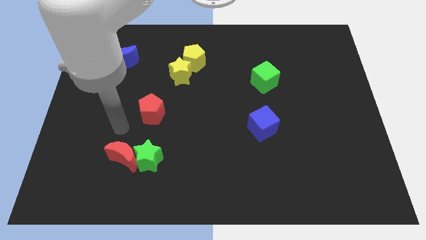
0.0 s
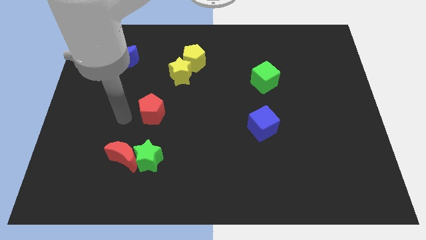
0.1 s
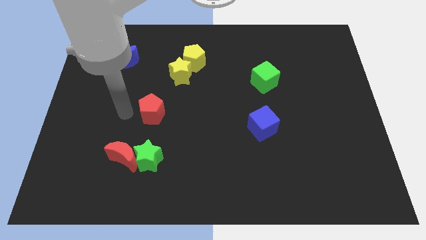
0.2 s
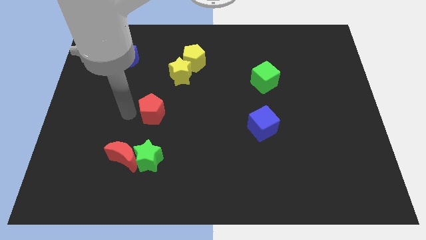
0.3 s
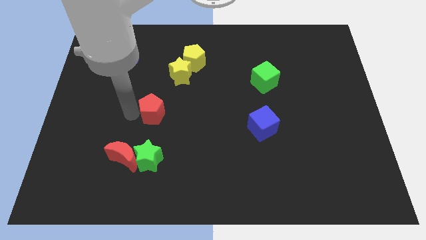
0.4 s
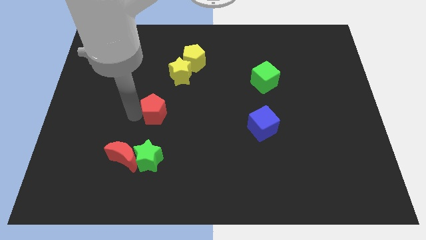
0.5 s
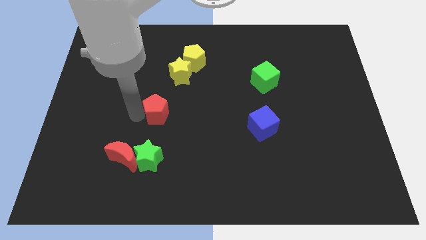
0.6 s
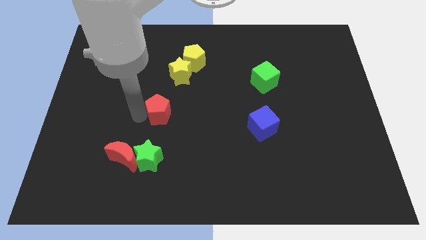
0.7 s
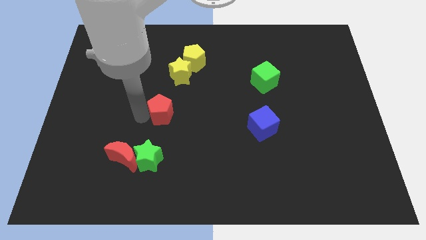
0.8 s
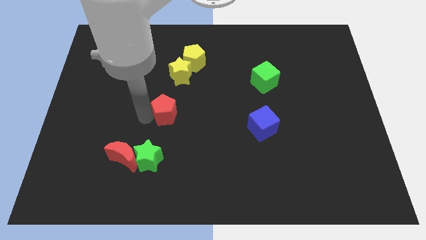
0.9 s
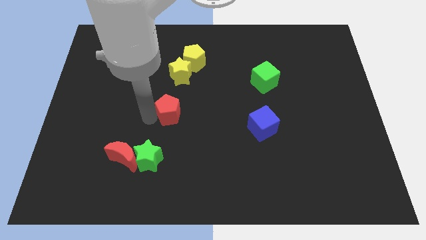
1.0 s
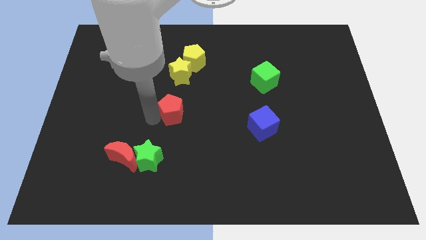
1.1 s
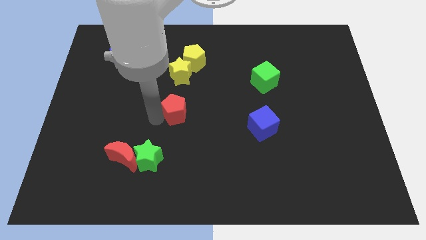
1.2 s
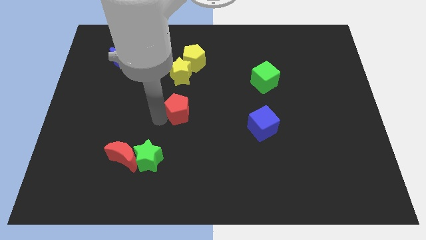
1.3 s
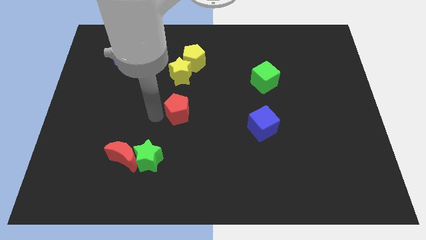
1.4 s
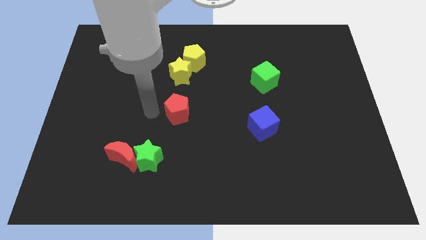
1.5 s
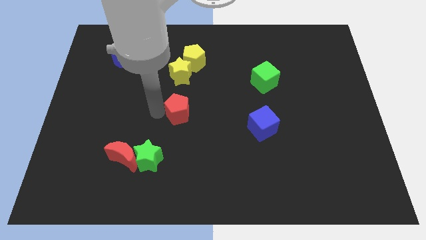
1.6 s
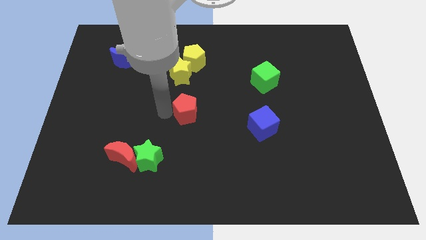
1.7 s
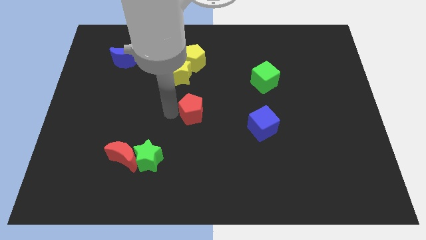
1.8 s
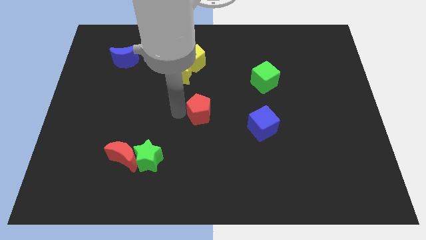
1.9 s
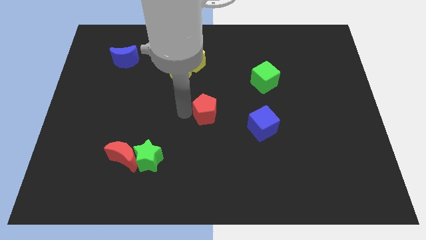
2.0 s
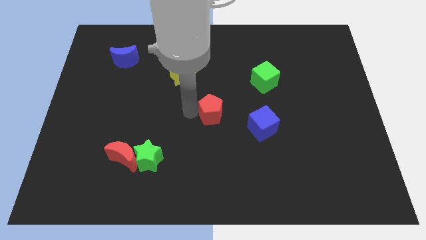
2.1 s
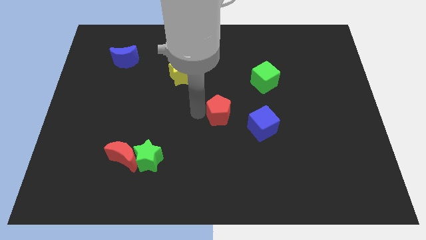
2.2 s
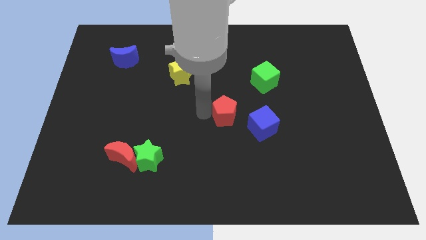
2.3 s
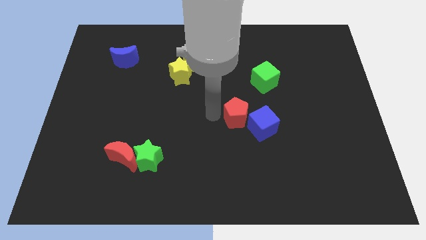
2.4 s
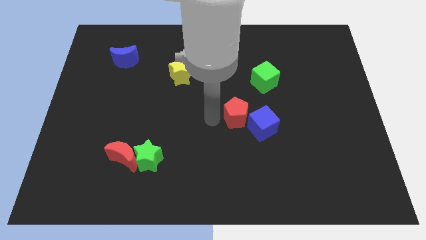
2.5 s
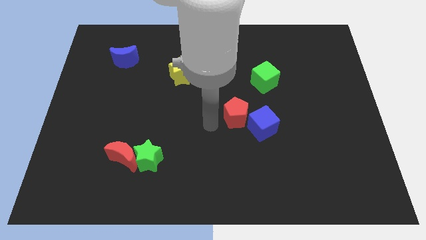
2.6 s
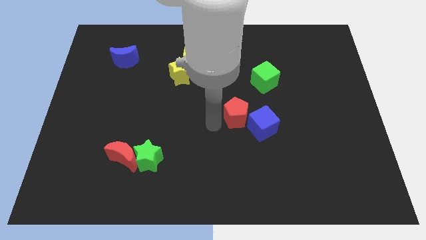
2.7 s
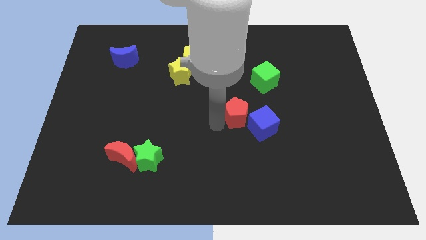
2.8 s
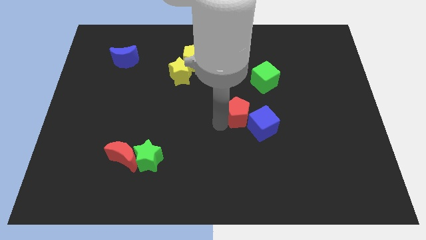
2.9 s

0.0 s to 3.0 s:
move the red pentagon to the right

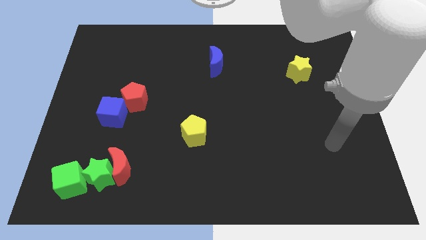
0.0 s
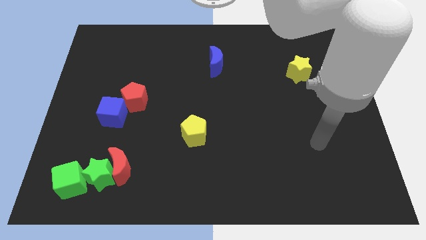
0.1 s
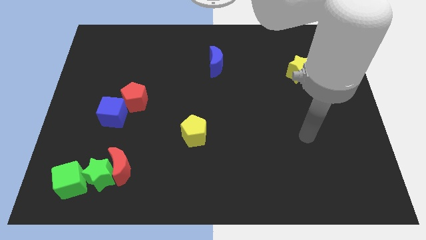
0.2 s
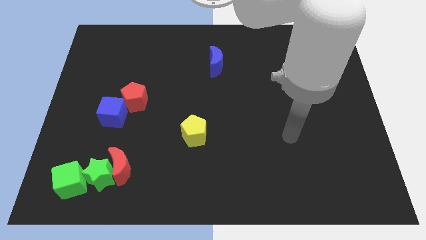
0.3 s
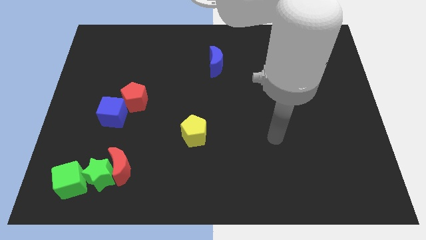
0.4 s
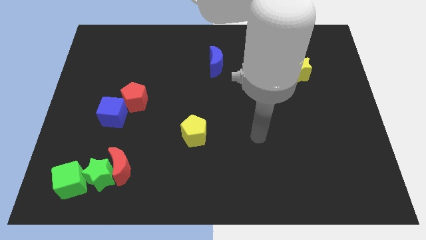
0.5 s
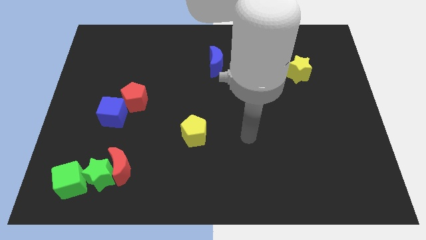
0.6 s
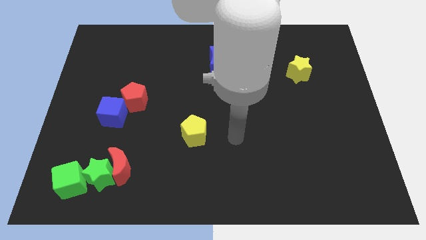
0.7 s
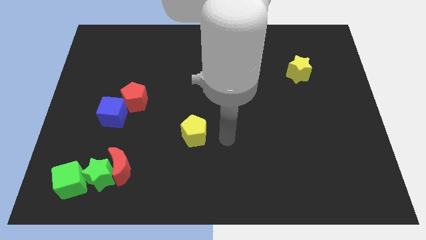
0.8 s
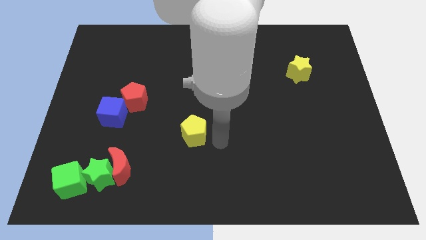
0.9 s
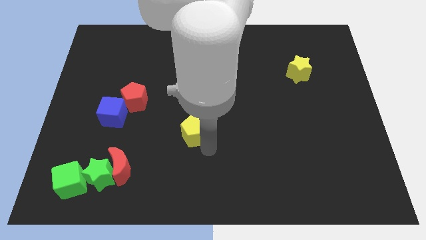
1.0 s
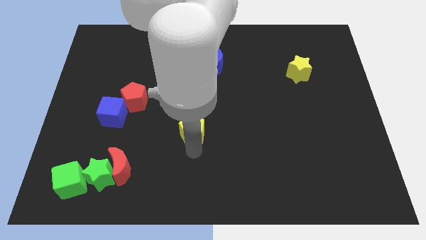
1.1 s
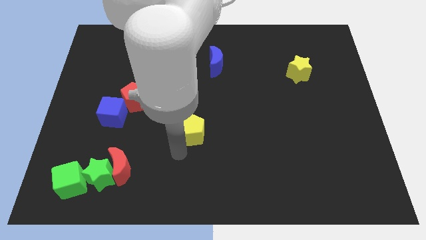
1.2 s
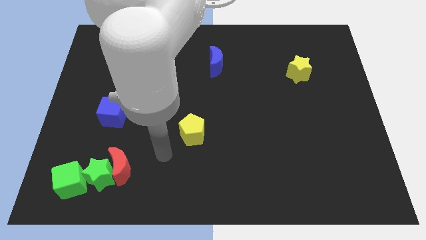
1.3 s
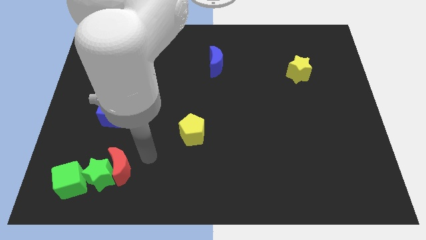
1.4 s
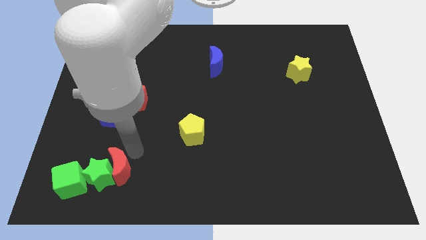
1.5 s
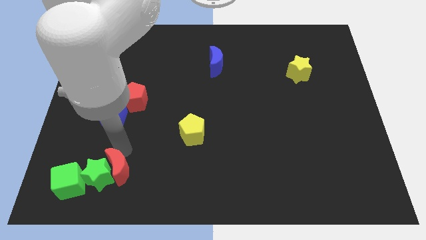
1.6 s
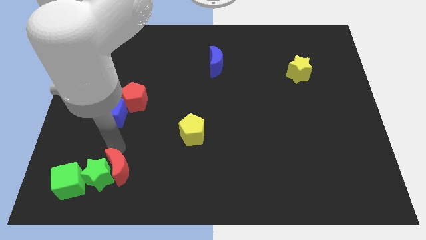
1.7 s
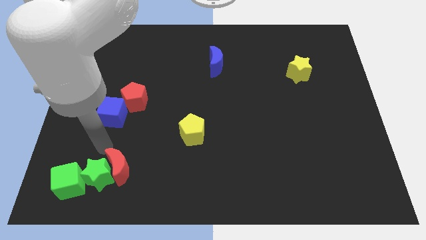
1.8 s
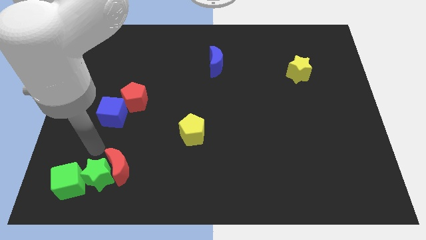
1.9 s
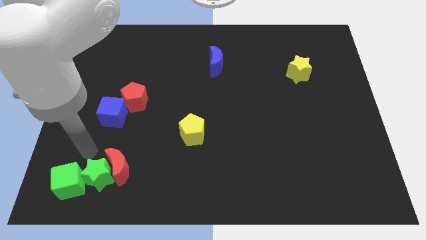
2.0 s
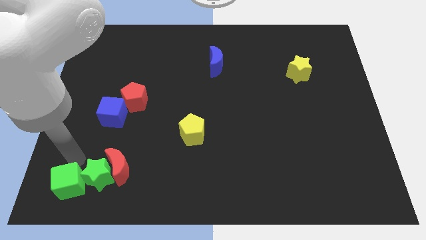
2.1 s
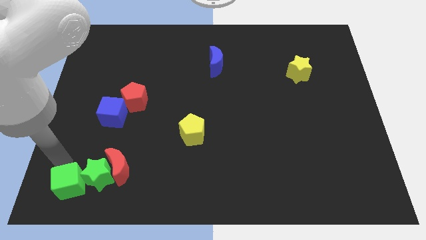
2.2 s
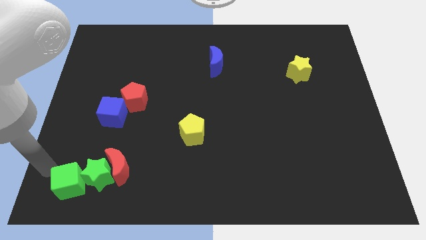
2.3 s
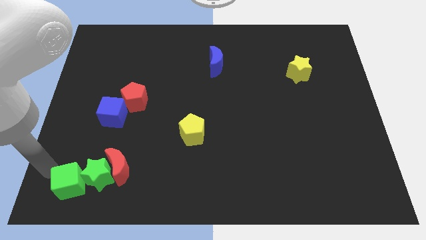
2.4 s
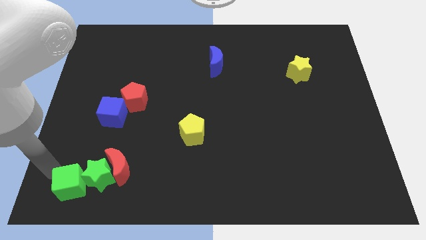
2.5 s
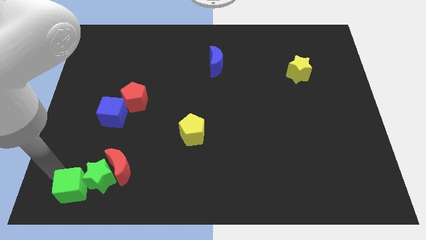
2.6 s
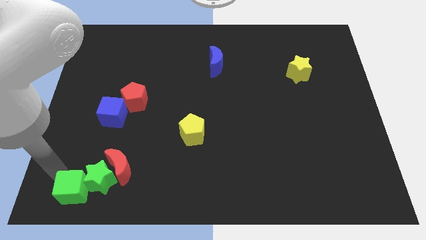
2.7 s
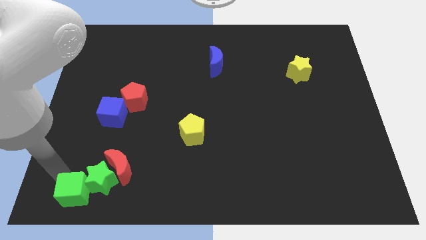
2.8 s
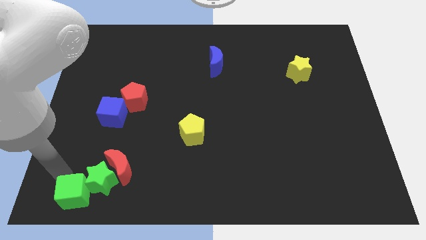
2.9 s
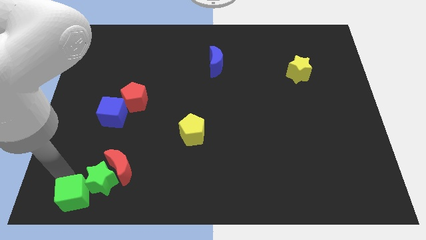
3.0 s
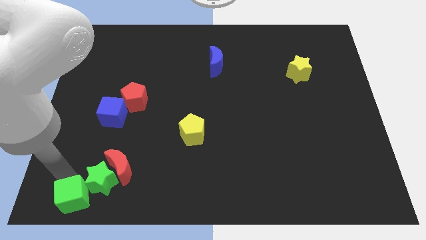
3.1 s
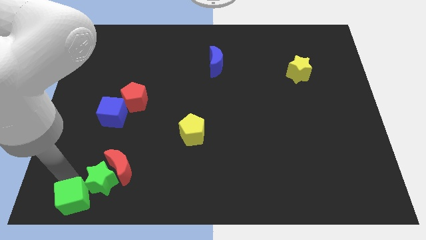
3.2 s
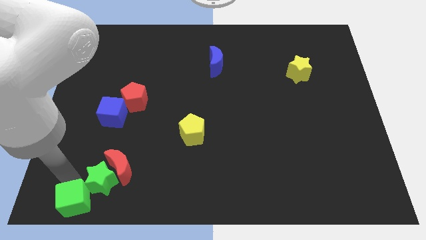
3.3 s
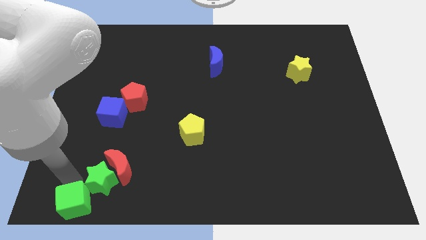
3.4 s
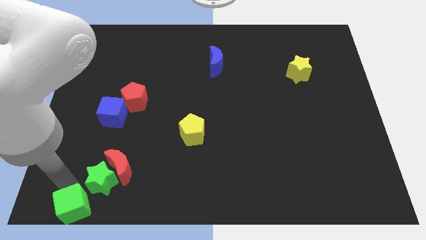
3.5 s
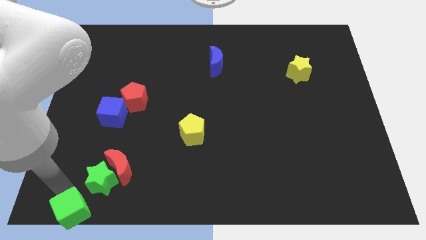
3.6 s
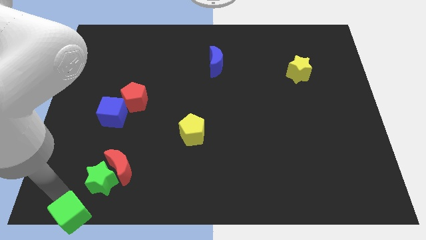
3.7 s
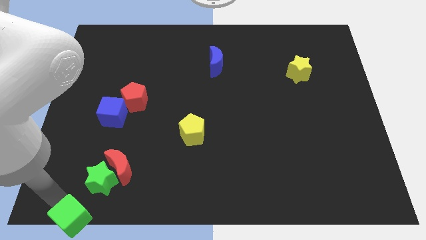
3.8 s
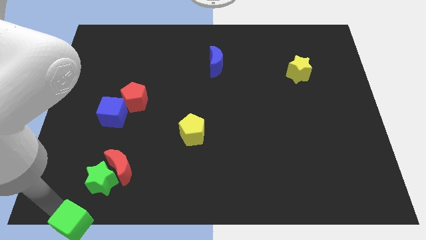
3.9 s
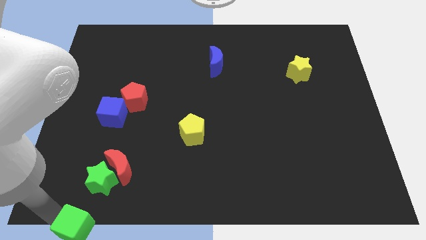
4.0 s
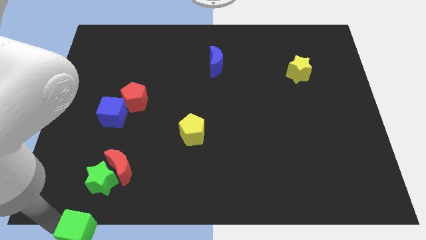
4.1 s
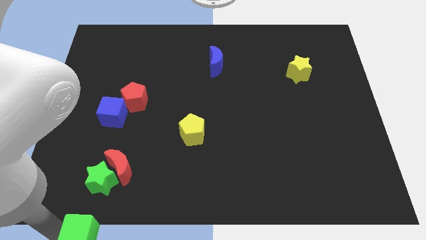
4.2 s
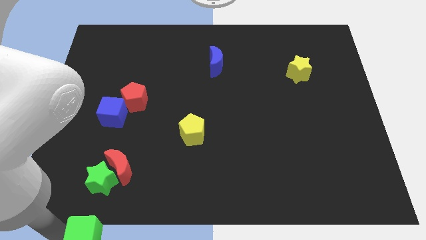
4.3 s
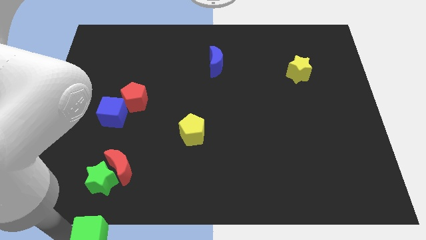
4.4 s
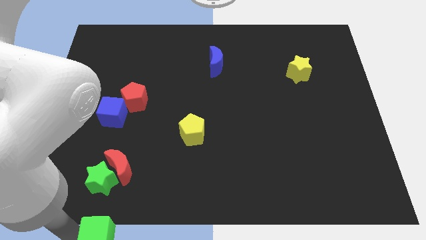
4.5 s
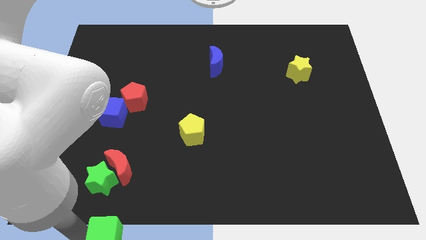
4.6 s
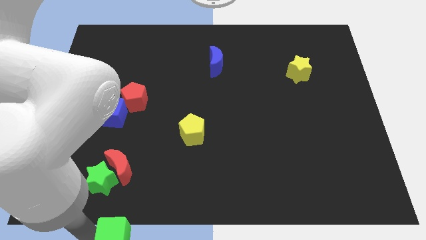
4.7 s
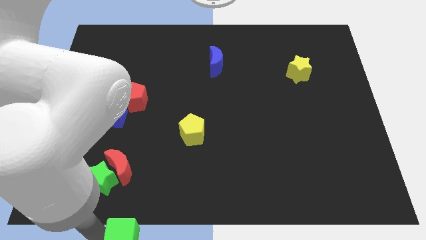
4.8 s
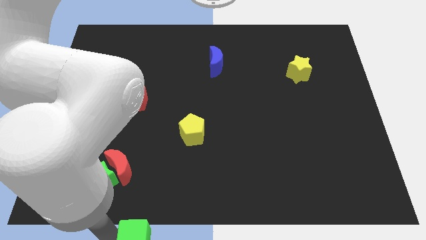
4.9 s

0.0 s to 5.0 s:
move the green cube slightly right
